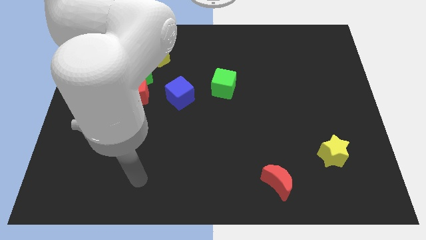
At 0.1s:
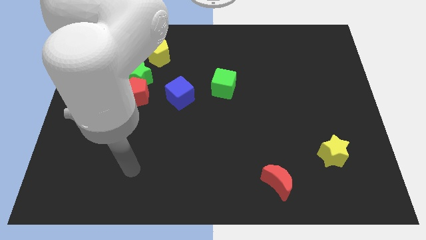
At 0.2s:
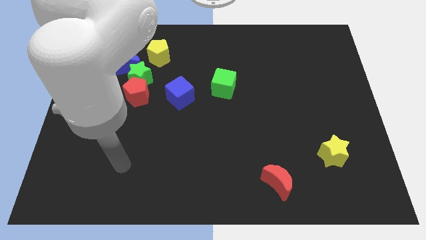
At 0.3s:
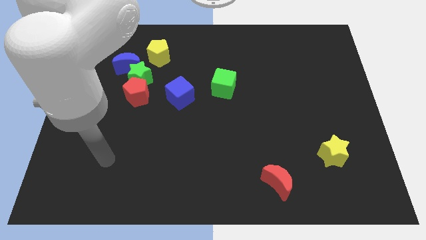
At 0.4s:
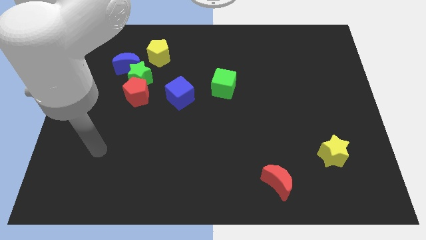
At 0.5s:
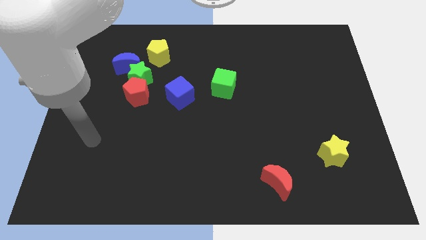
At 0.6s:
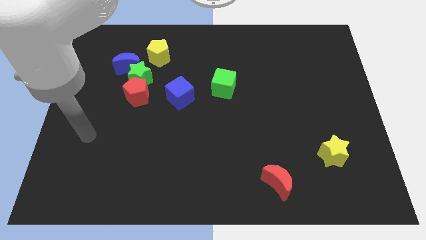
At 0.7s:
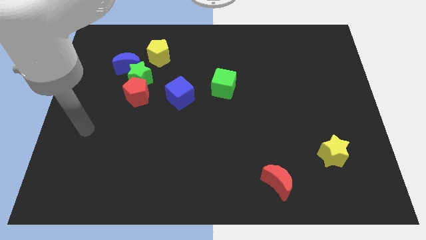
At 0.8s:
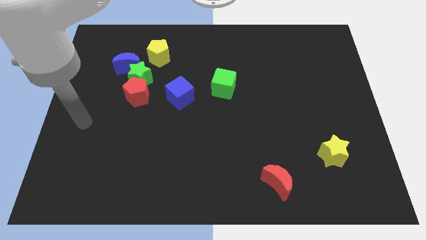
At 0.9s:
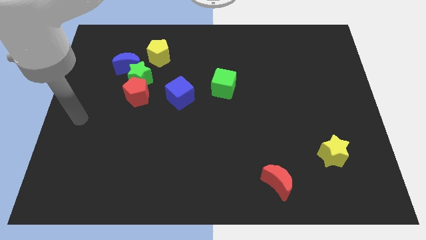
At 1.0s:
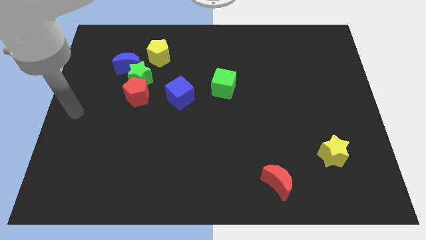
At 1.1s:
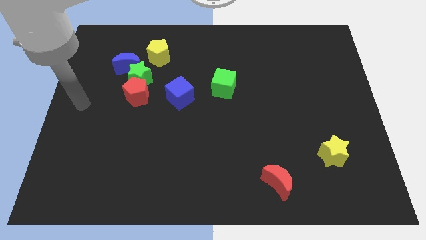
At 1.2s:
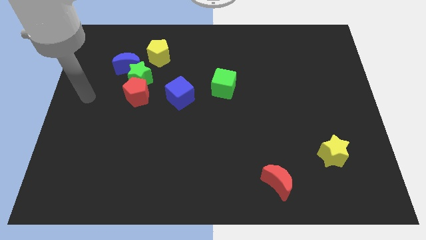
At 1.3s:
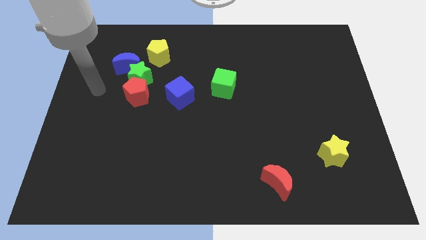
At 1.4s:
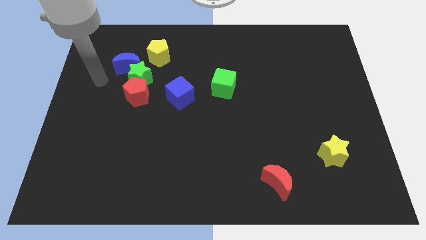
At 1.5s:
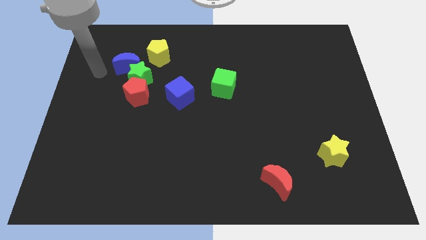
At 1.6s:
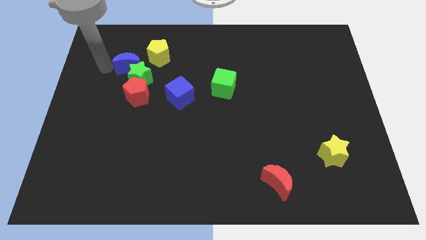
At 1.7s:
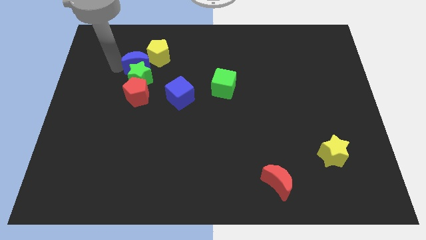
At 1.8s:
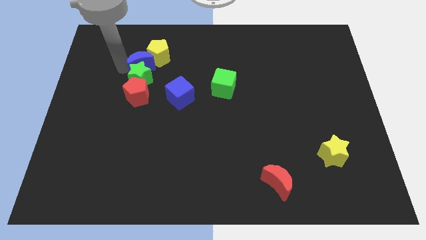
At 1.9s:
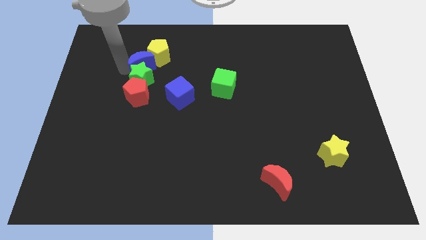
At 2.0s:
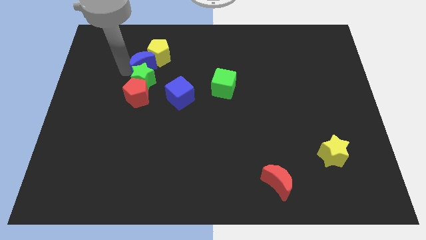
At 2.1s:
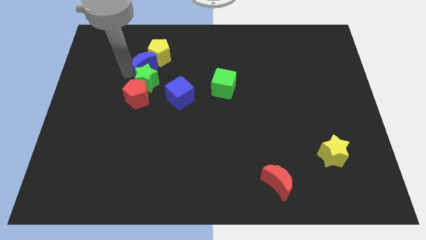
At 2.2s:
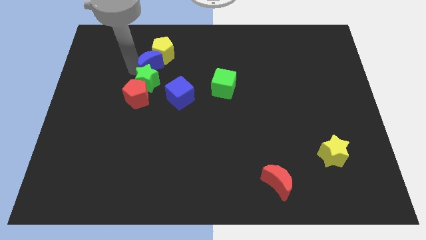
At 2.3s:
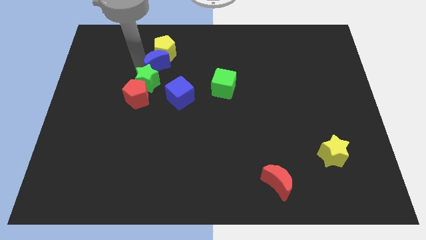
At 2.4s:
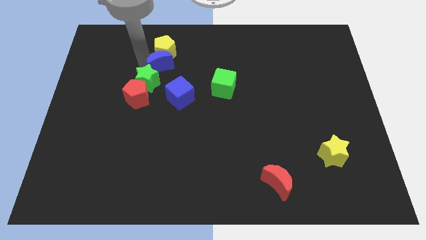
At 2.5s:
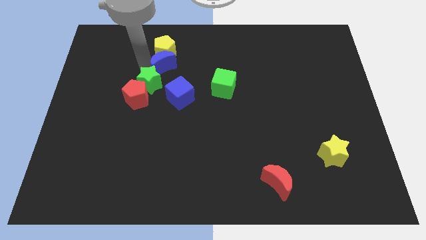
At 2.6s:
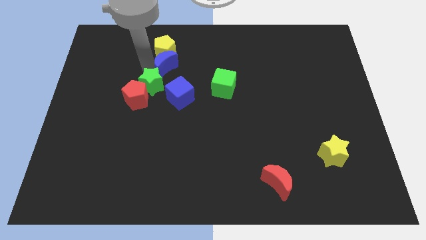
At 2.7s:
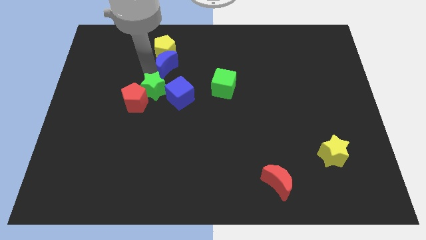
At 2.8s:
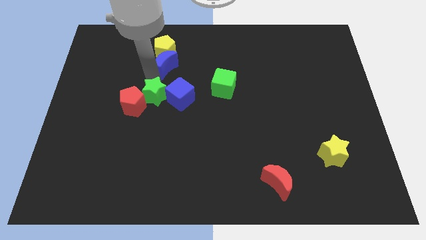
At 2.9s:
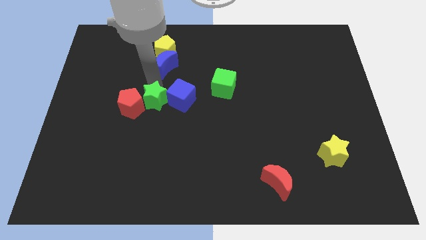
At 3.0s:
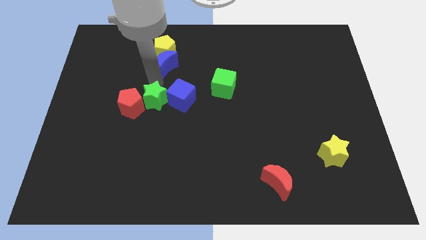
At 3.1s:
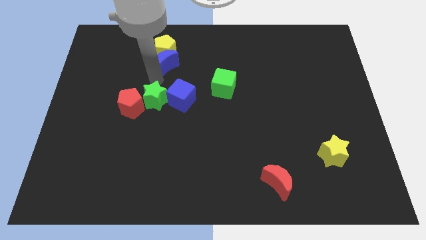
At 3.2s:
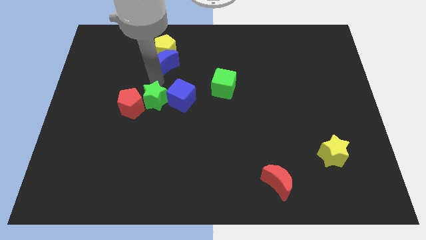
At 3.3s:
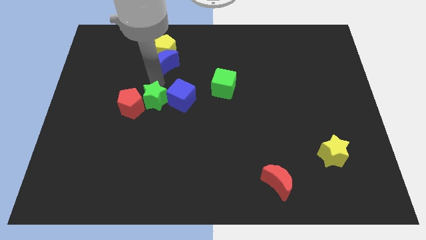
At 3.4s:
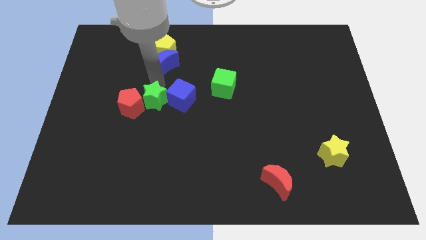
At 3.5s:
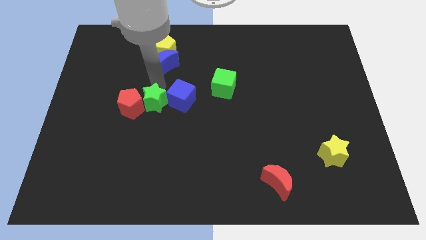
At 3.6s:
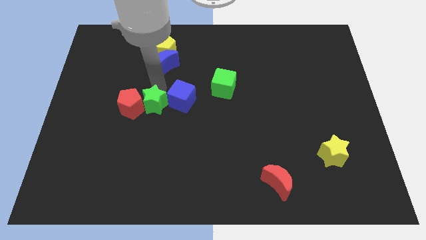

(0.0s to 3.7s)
pull the green star apart from the group of blocks

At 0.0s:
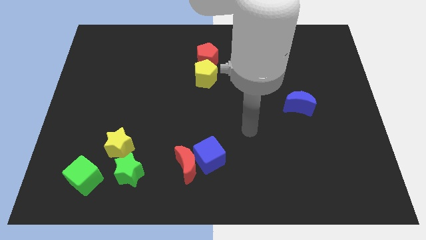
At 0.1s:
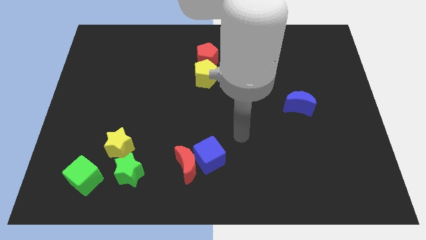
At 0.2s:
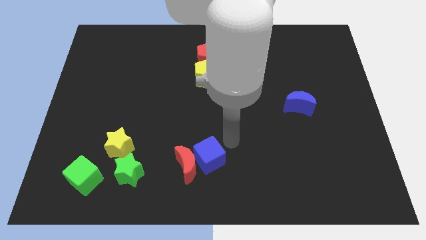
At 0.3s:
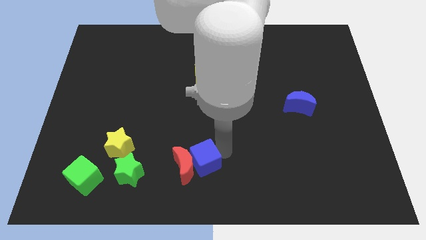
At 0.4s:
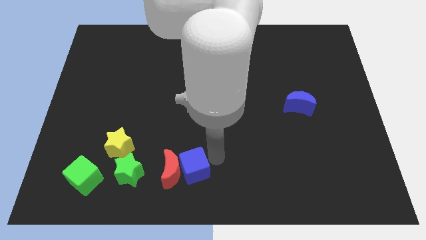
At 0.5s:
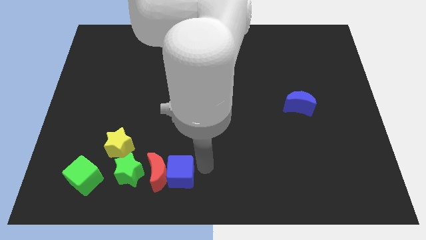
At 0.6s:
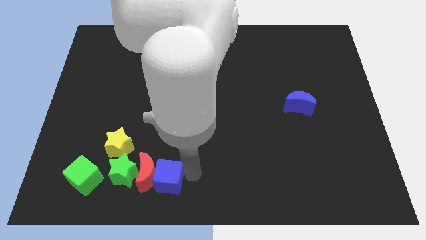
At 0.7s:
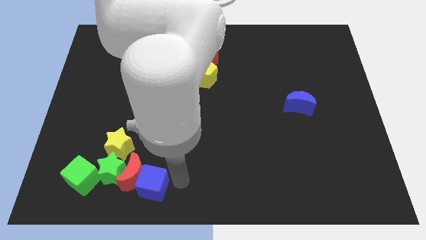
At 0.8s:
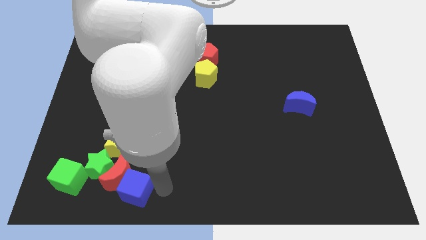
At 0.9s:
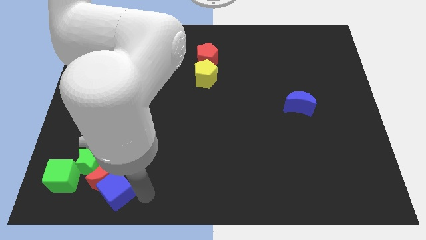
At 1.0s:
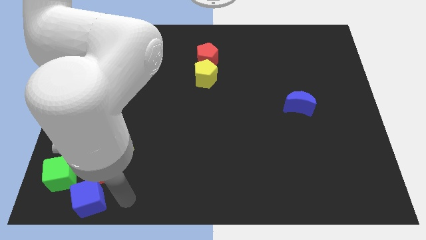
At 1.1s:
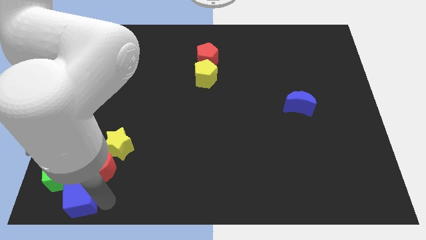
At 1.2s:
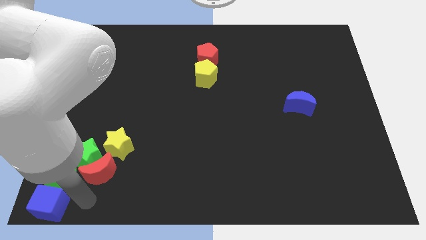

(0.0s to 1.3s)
separate the red moon from the blue cube

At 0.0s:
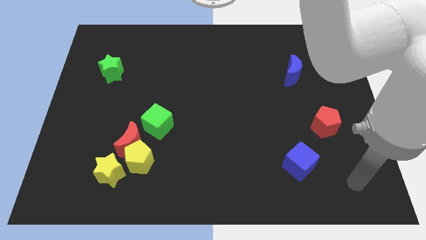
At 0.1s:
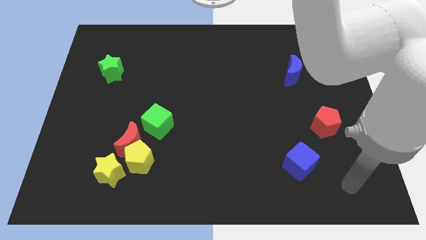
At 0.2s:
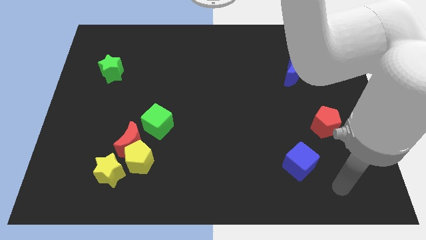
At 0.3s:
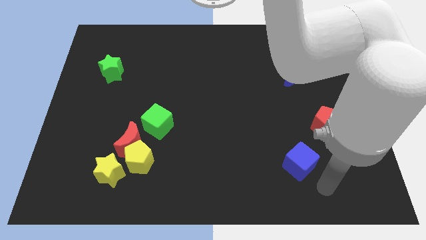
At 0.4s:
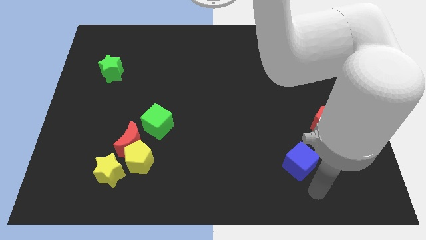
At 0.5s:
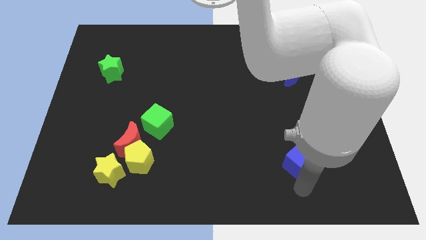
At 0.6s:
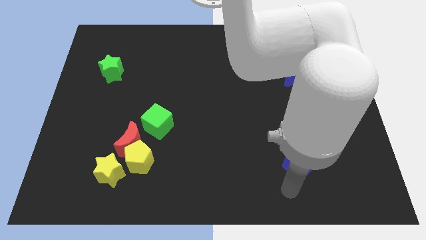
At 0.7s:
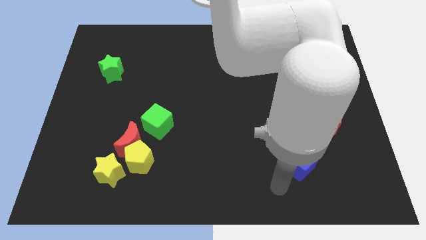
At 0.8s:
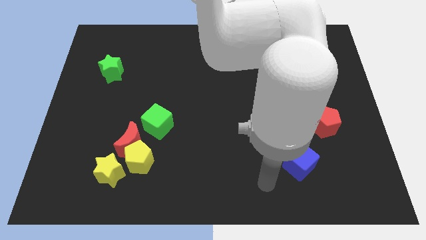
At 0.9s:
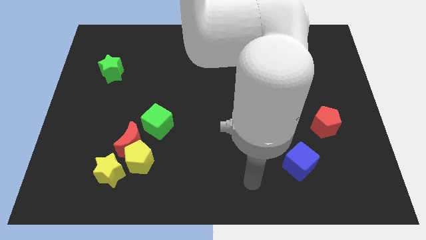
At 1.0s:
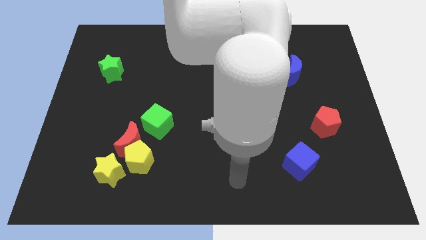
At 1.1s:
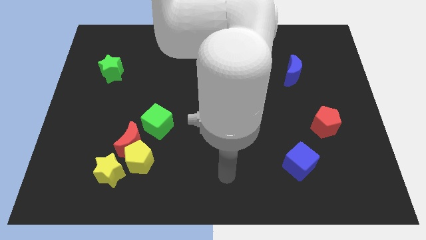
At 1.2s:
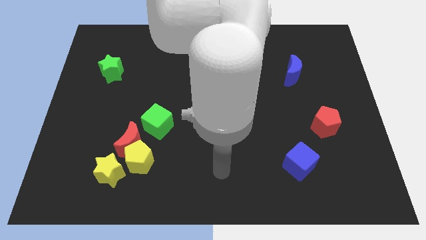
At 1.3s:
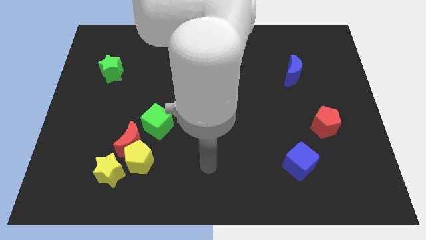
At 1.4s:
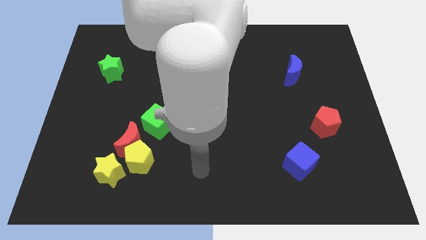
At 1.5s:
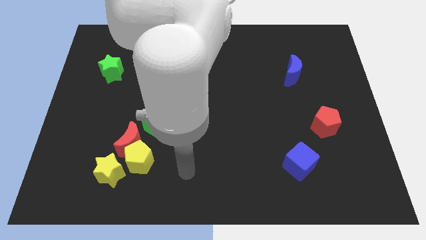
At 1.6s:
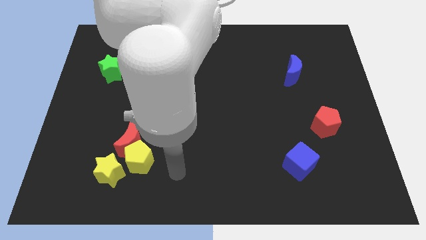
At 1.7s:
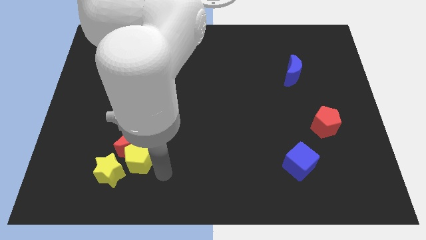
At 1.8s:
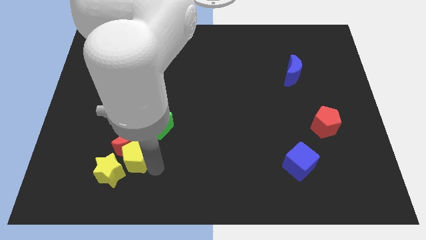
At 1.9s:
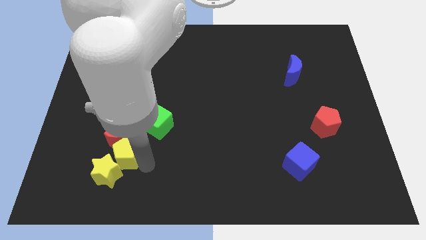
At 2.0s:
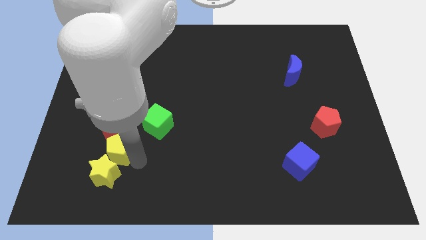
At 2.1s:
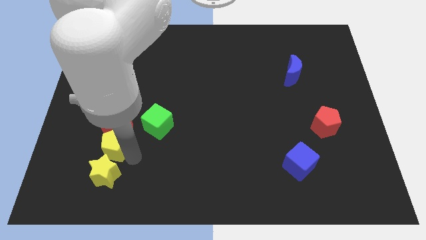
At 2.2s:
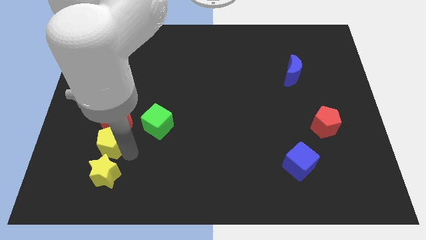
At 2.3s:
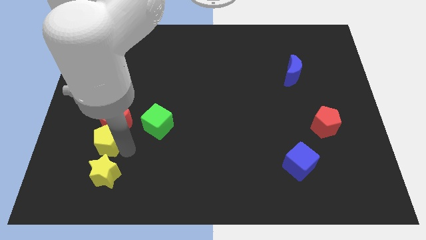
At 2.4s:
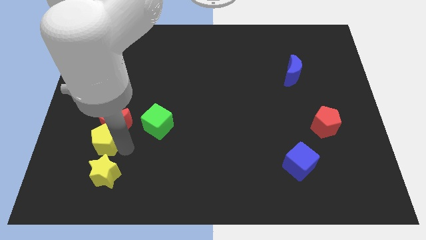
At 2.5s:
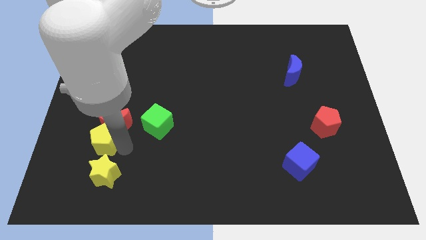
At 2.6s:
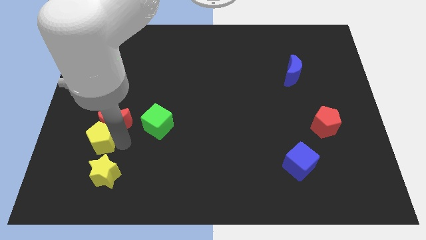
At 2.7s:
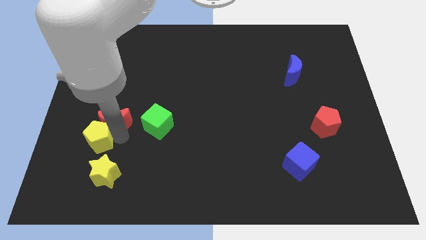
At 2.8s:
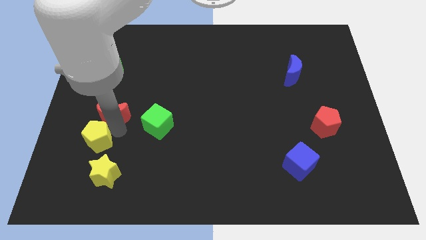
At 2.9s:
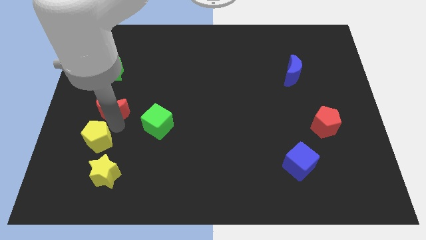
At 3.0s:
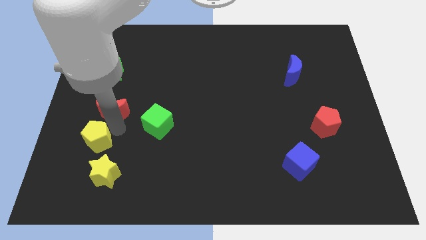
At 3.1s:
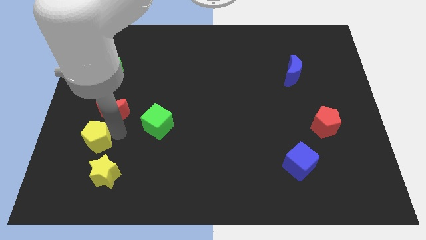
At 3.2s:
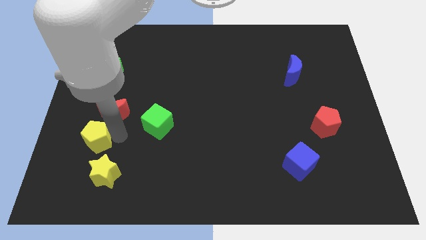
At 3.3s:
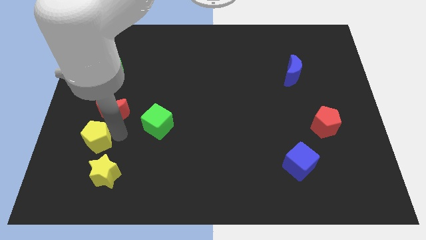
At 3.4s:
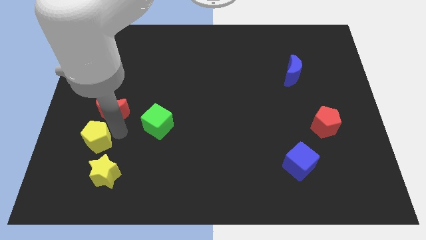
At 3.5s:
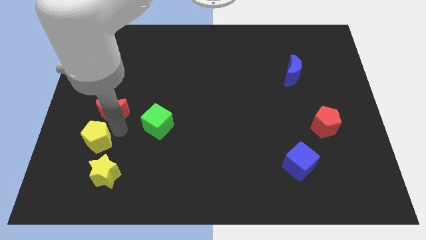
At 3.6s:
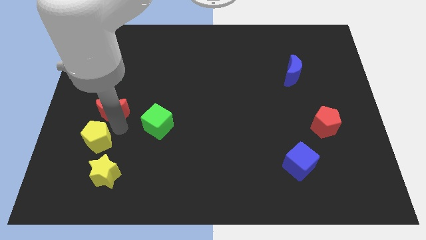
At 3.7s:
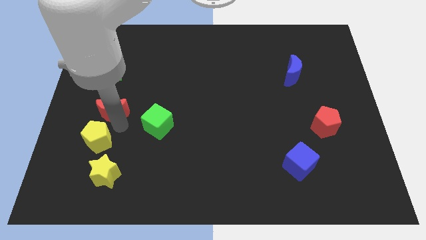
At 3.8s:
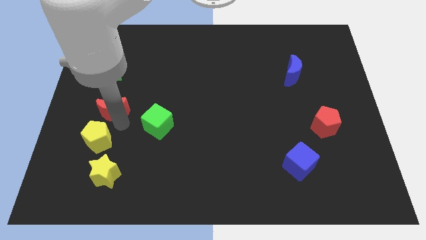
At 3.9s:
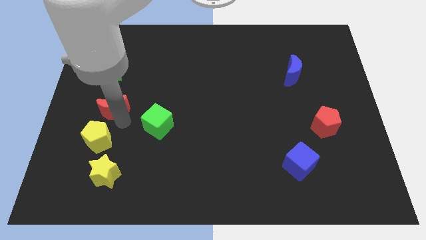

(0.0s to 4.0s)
move the red moon away from the clump

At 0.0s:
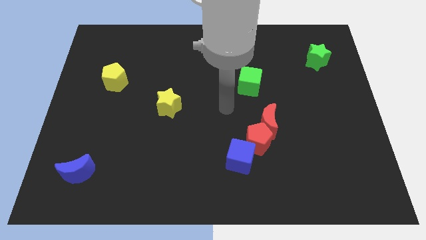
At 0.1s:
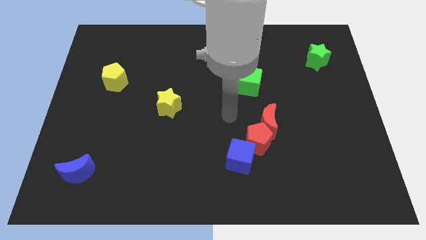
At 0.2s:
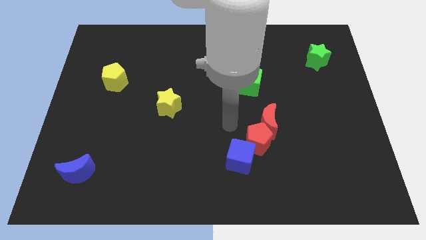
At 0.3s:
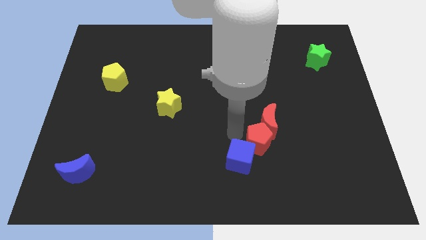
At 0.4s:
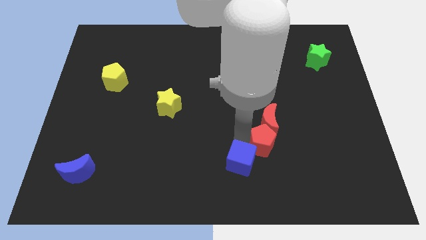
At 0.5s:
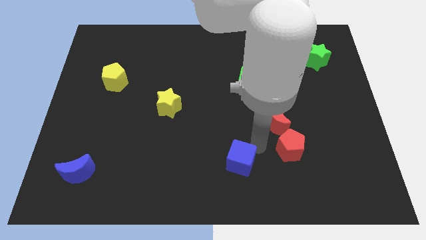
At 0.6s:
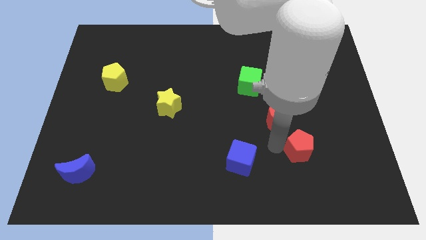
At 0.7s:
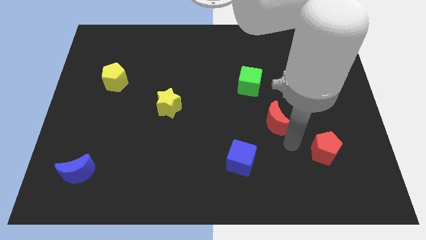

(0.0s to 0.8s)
pull the red moon apart from the red pentagon
